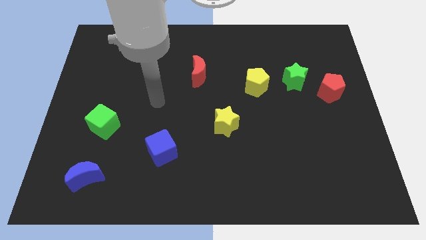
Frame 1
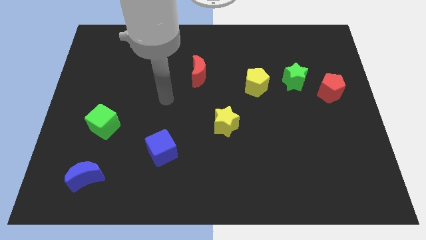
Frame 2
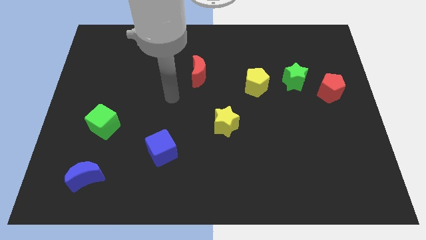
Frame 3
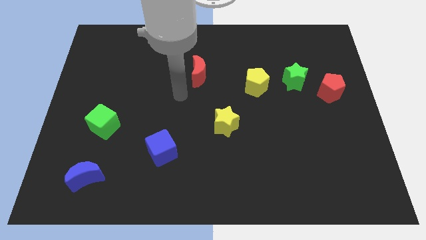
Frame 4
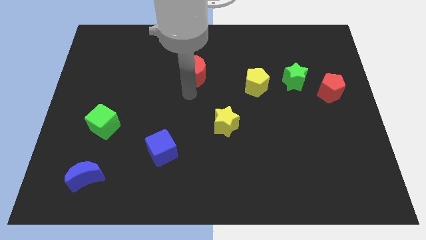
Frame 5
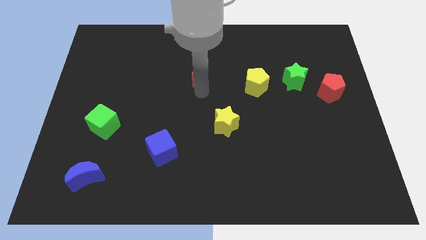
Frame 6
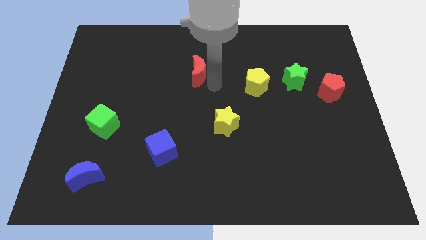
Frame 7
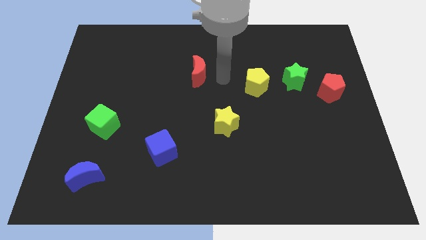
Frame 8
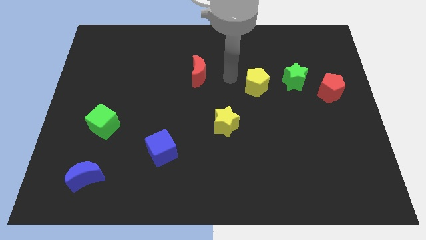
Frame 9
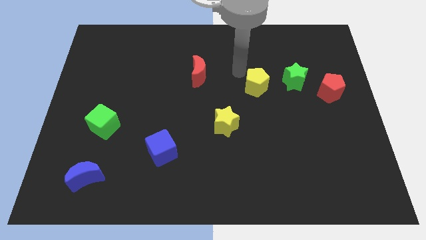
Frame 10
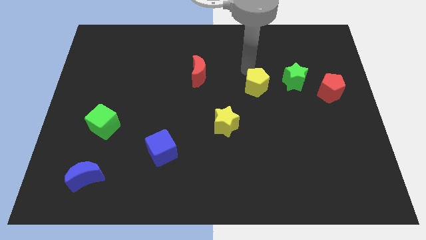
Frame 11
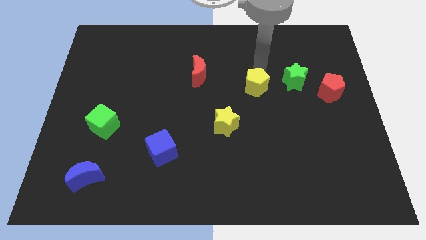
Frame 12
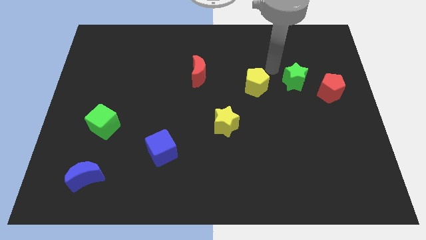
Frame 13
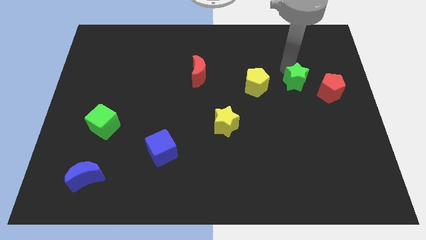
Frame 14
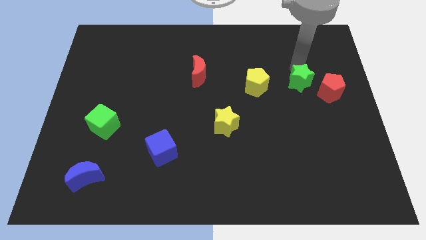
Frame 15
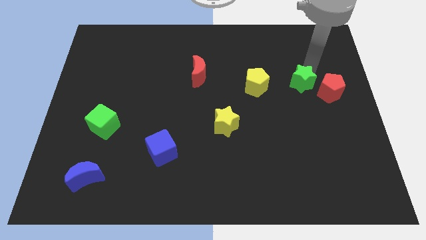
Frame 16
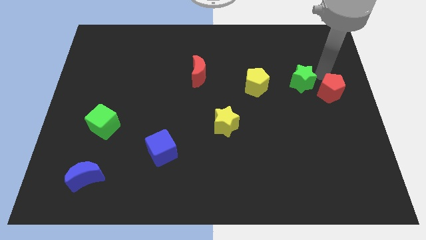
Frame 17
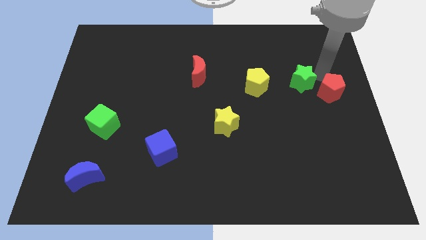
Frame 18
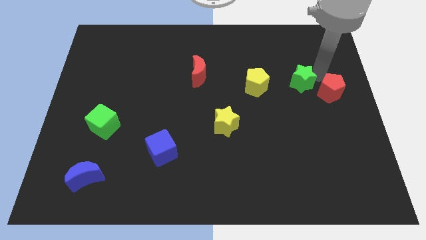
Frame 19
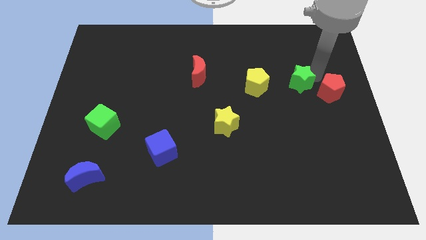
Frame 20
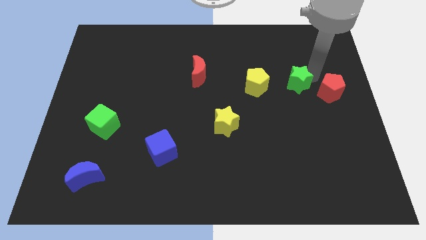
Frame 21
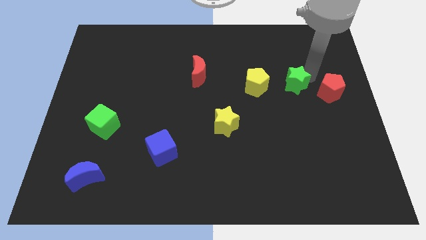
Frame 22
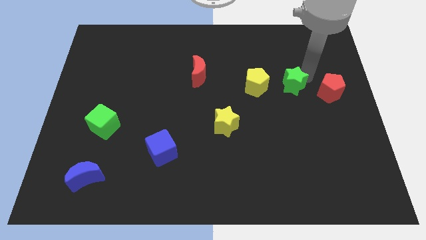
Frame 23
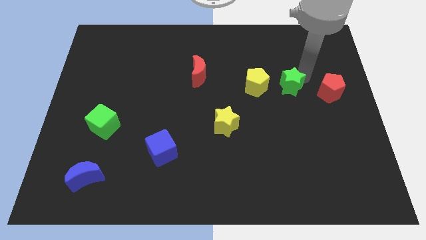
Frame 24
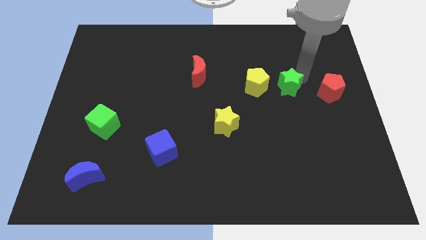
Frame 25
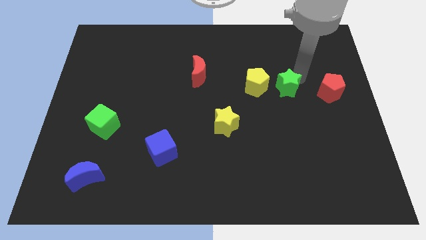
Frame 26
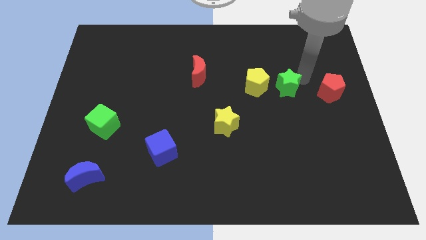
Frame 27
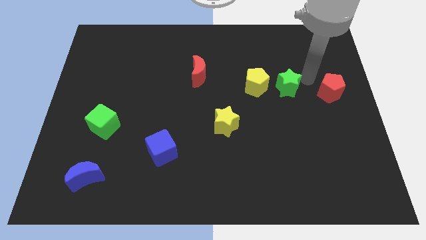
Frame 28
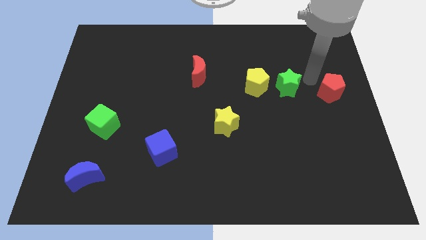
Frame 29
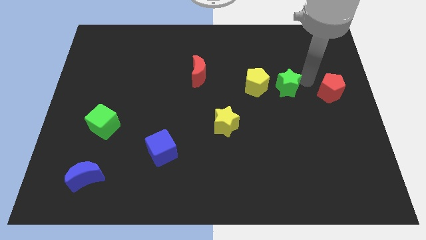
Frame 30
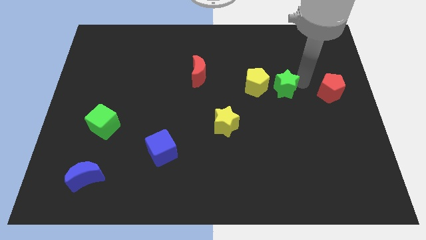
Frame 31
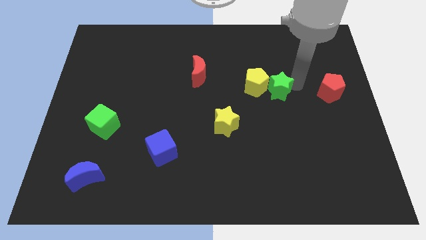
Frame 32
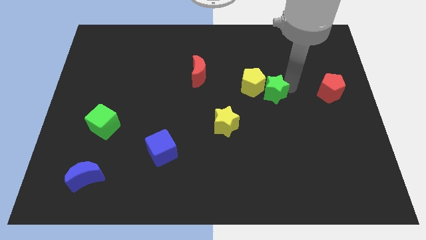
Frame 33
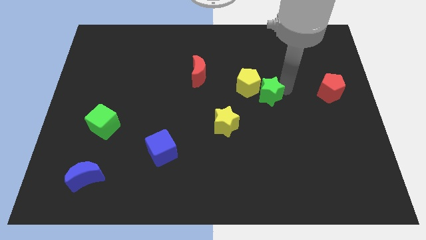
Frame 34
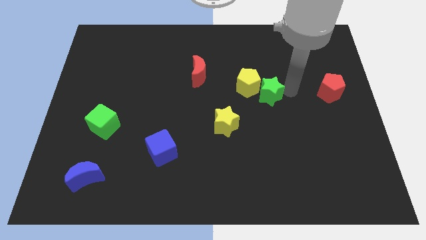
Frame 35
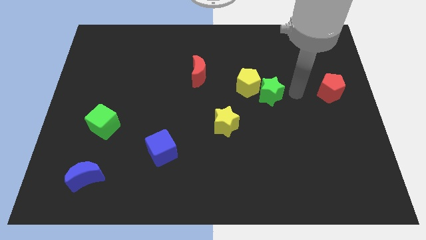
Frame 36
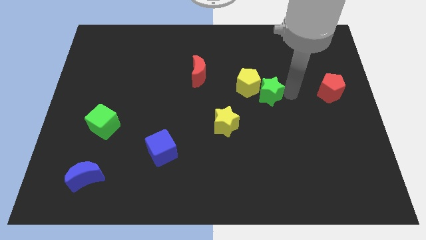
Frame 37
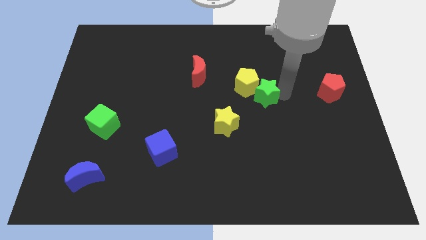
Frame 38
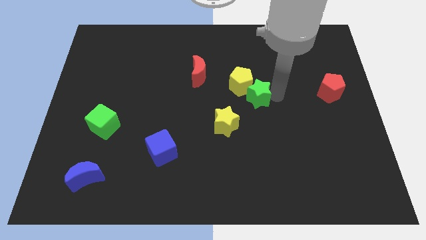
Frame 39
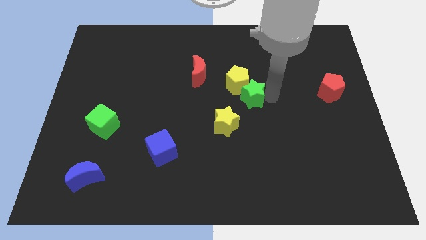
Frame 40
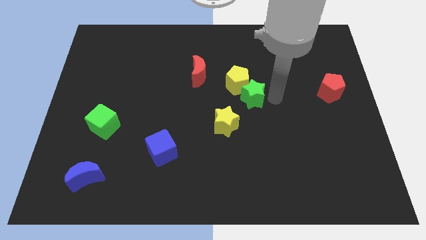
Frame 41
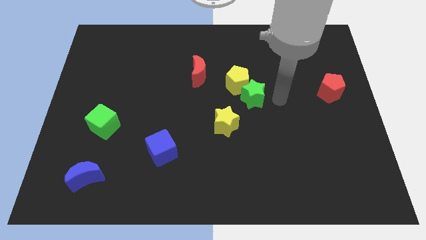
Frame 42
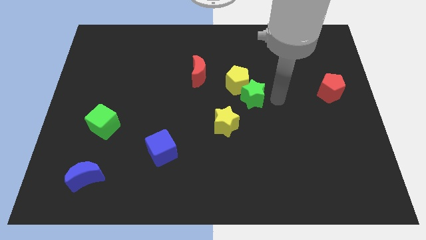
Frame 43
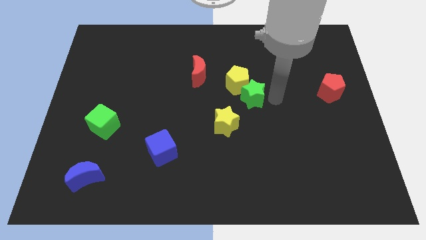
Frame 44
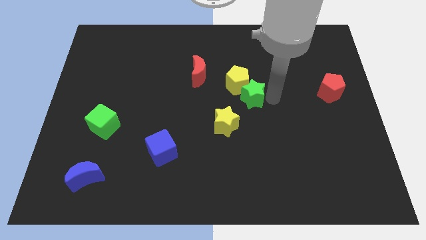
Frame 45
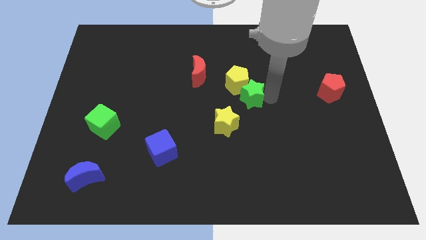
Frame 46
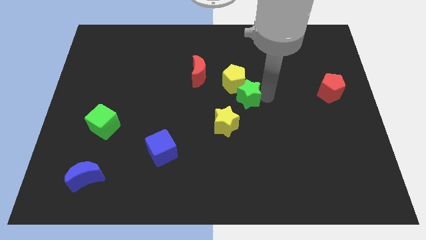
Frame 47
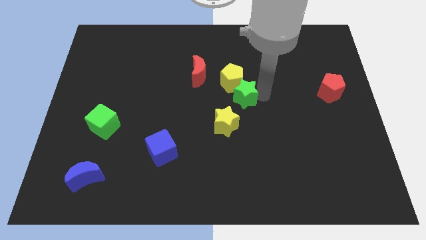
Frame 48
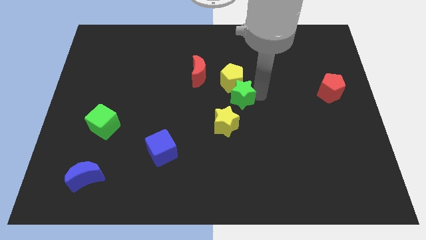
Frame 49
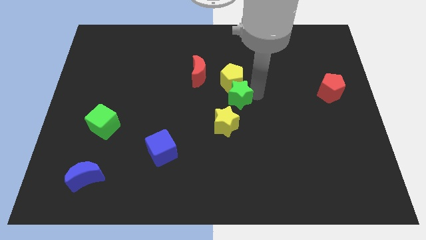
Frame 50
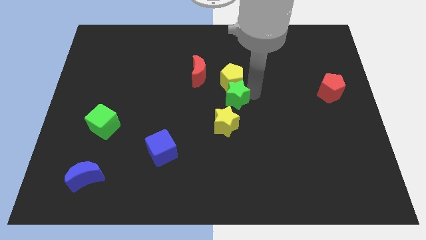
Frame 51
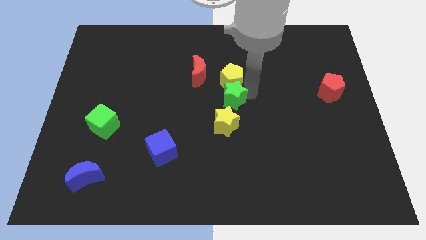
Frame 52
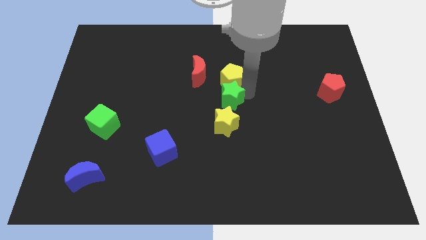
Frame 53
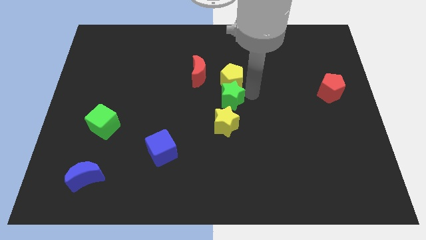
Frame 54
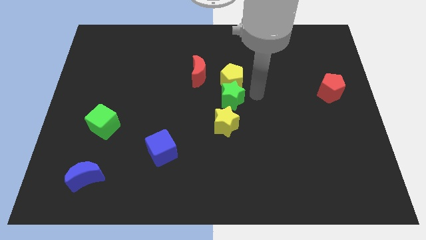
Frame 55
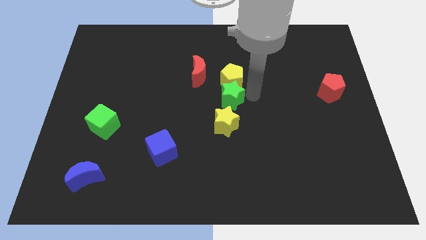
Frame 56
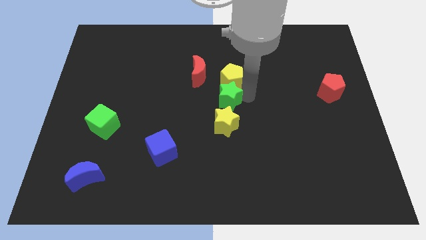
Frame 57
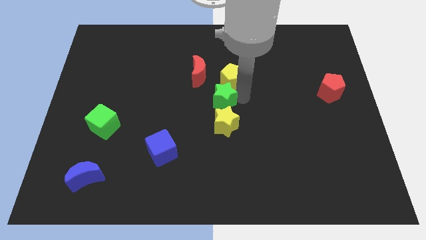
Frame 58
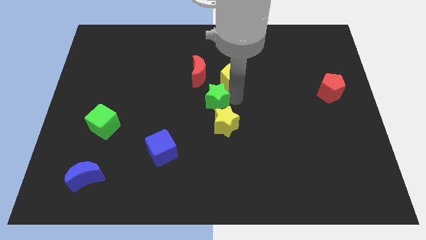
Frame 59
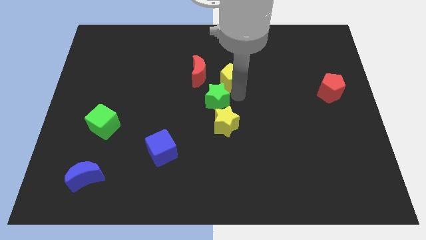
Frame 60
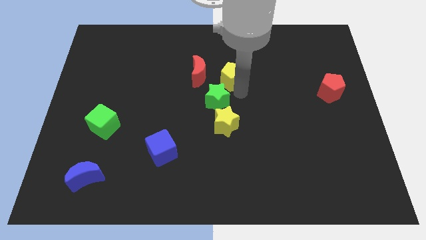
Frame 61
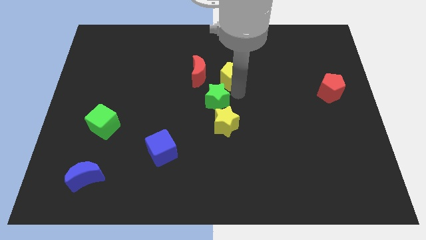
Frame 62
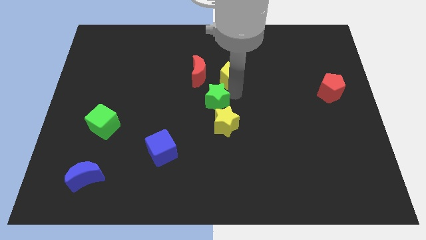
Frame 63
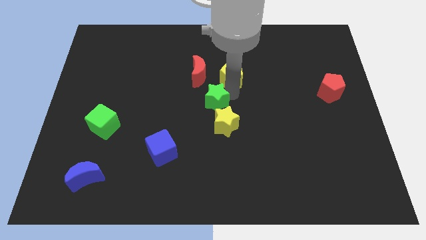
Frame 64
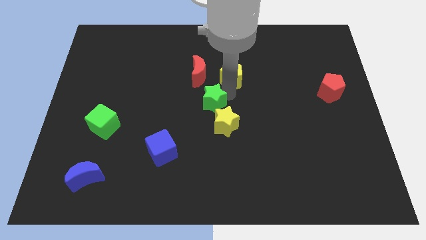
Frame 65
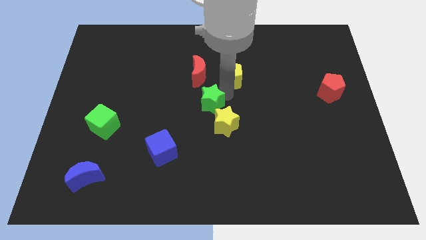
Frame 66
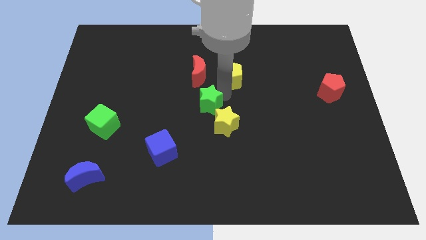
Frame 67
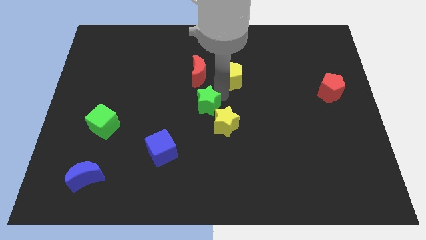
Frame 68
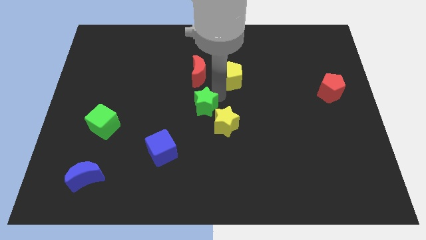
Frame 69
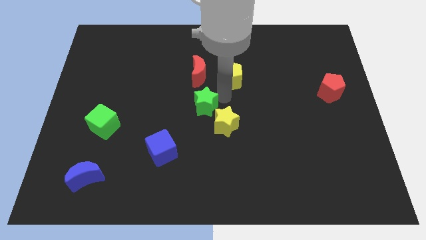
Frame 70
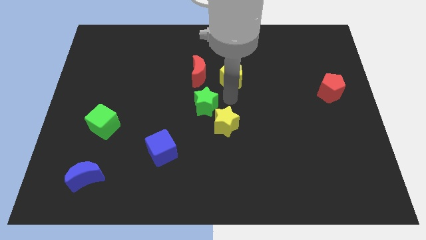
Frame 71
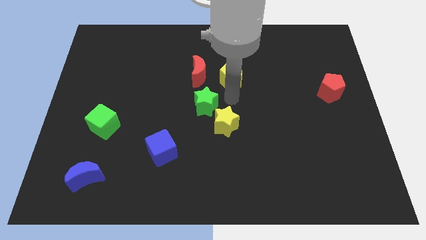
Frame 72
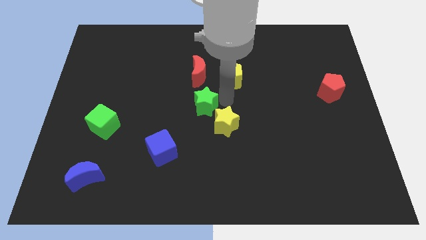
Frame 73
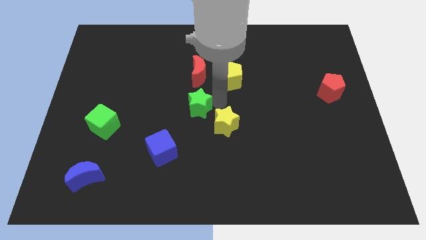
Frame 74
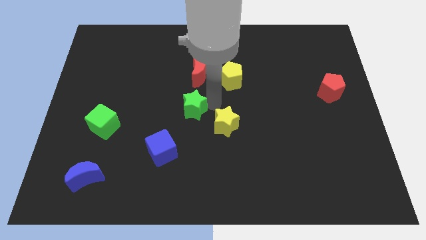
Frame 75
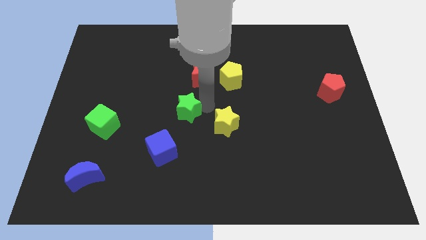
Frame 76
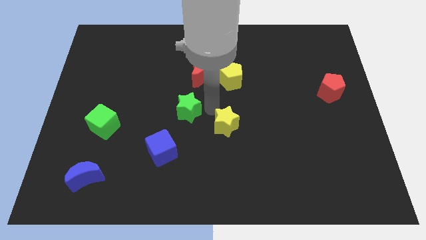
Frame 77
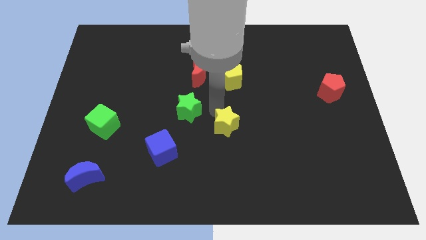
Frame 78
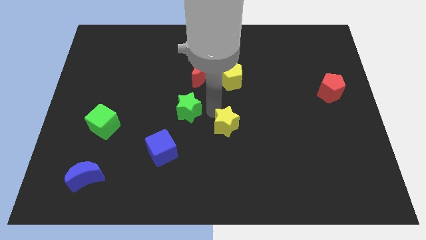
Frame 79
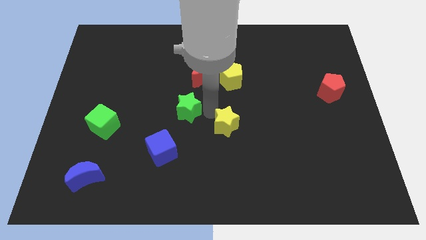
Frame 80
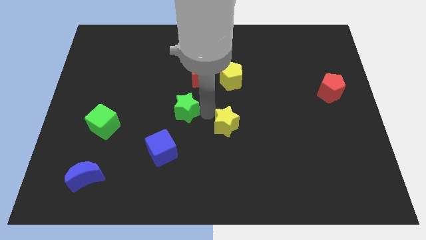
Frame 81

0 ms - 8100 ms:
push the green star above the blue cube
